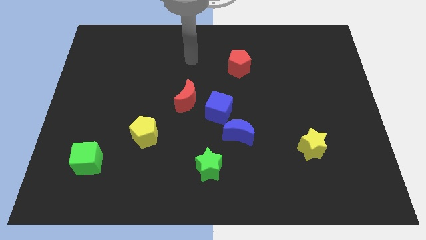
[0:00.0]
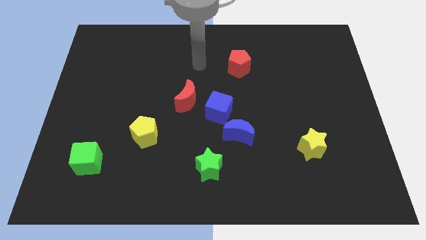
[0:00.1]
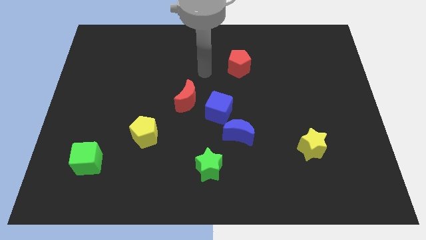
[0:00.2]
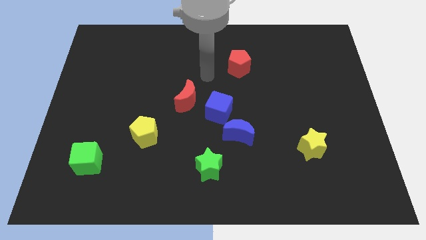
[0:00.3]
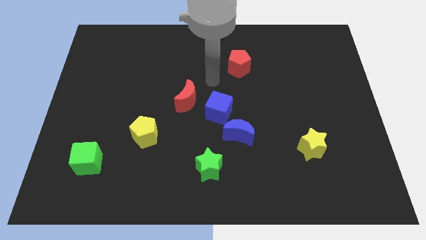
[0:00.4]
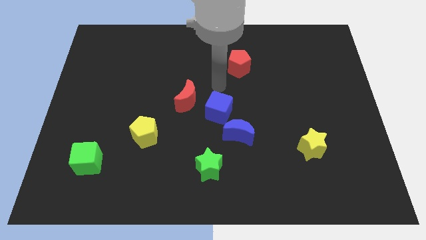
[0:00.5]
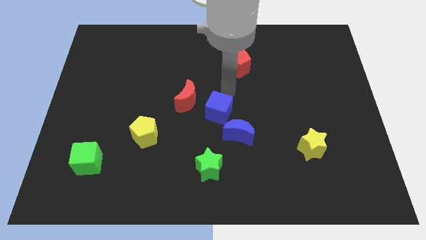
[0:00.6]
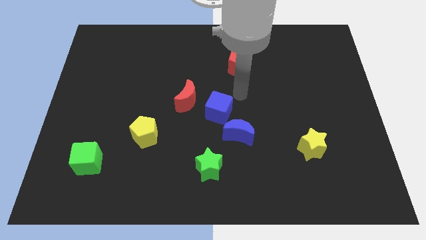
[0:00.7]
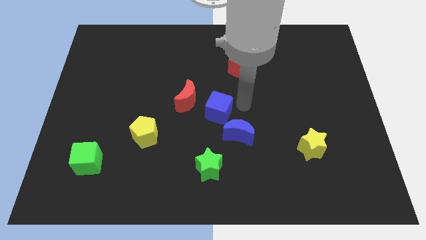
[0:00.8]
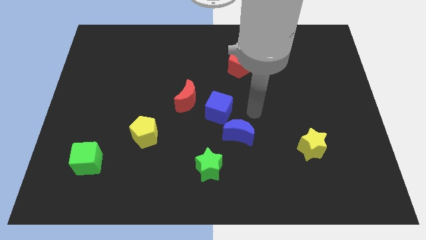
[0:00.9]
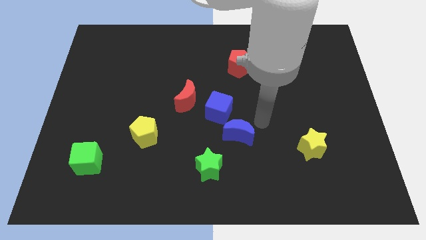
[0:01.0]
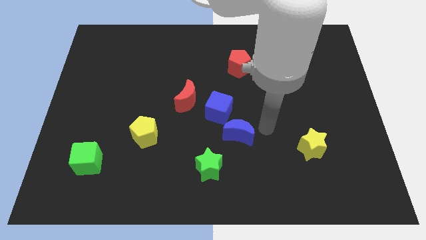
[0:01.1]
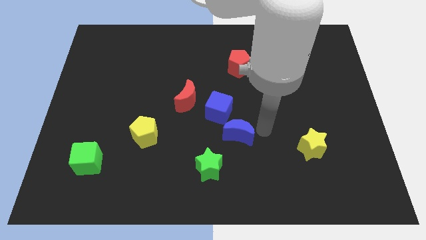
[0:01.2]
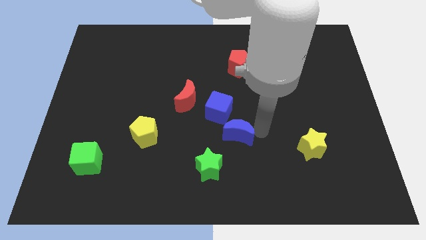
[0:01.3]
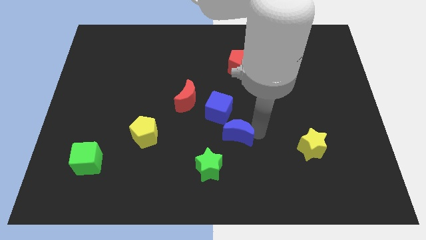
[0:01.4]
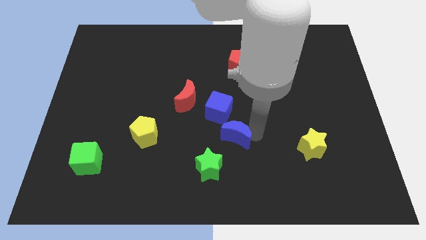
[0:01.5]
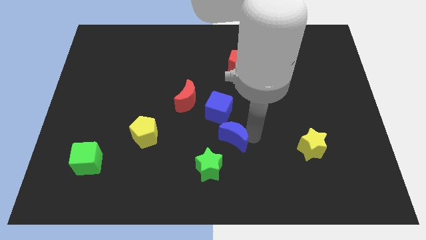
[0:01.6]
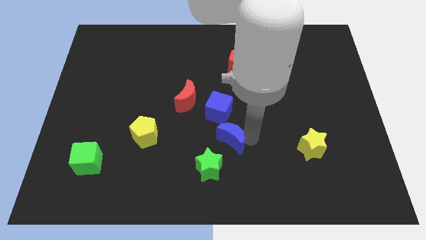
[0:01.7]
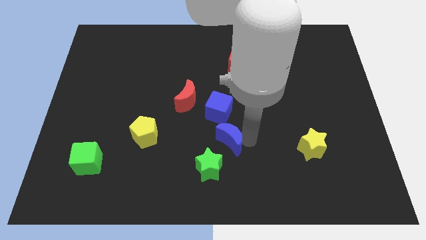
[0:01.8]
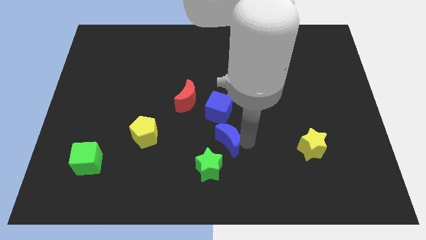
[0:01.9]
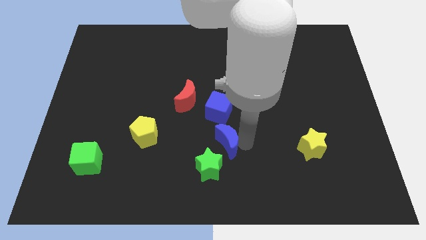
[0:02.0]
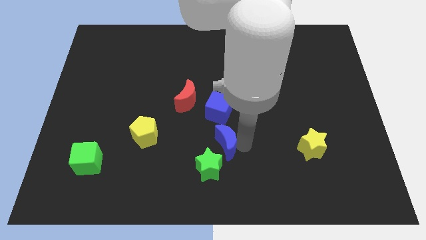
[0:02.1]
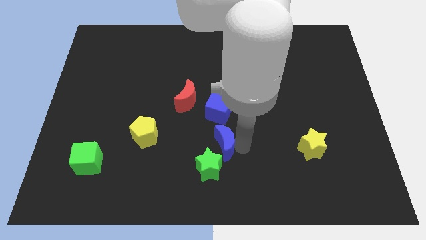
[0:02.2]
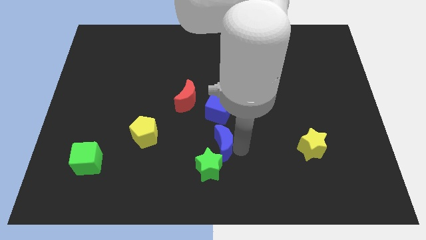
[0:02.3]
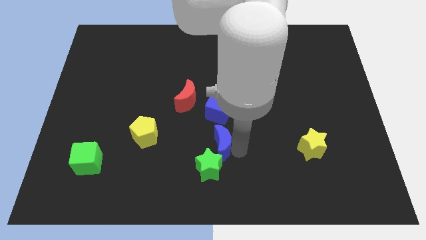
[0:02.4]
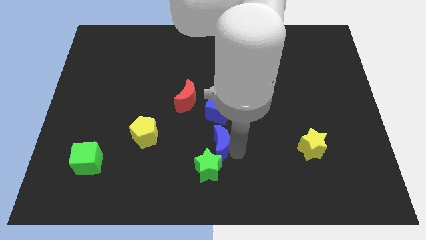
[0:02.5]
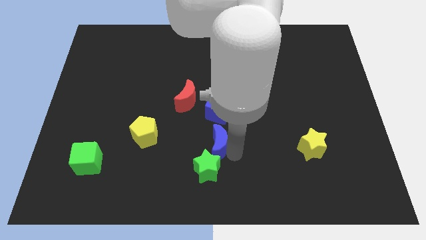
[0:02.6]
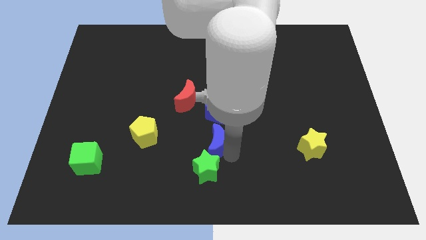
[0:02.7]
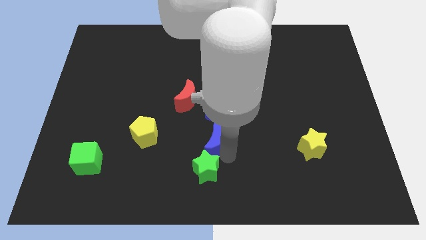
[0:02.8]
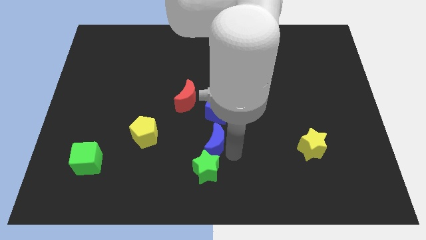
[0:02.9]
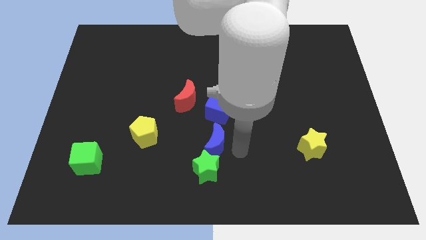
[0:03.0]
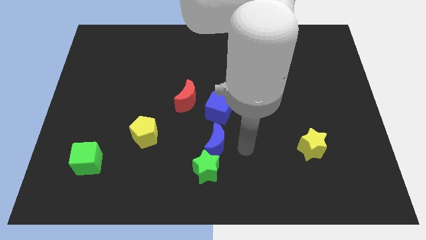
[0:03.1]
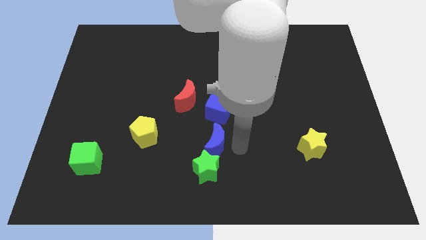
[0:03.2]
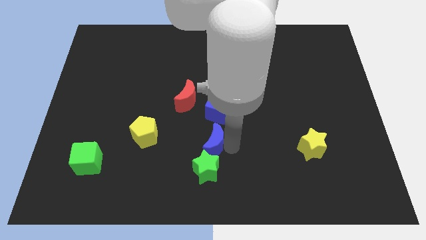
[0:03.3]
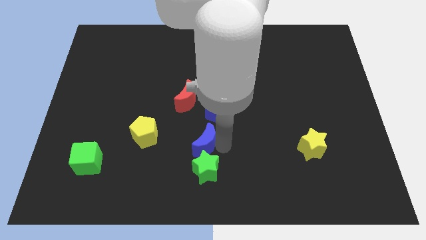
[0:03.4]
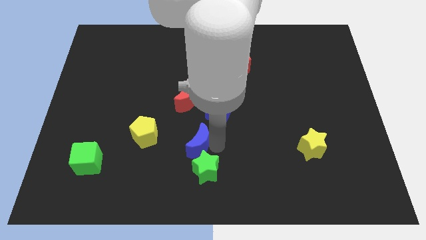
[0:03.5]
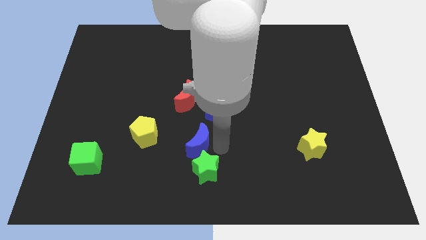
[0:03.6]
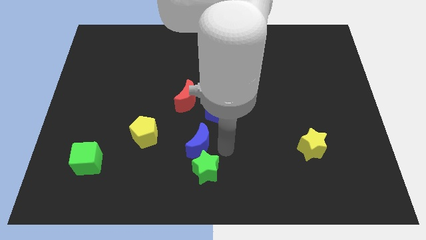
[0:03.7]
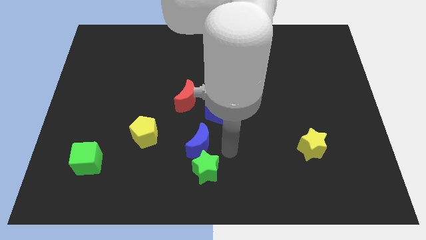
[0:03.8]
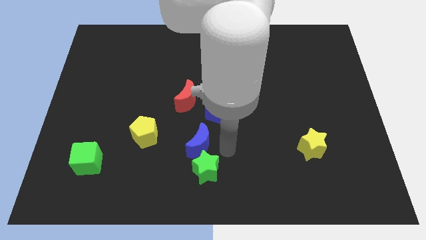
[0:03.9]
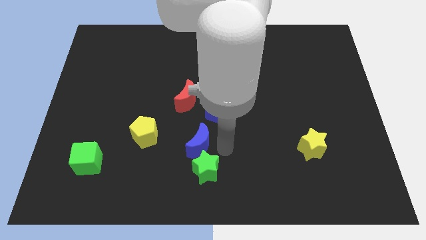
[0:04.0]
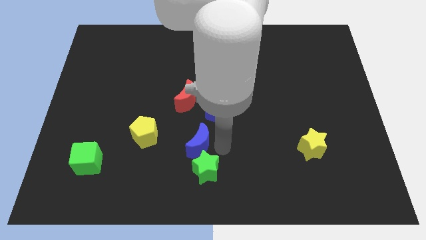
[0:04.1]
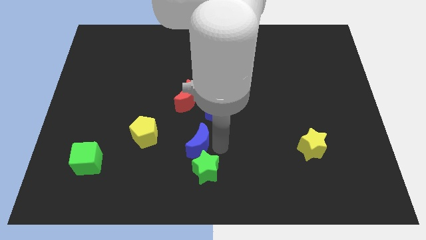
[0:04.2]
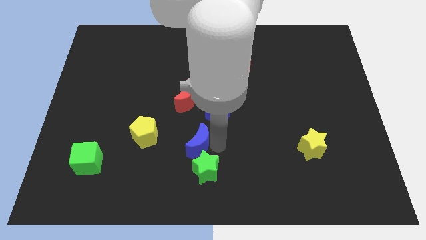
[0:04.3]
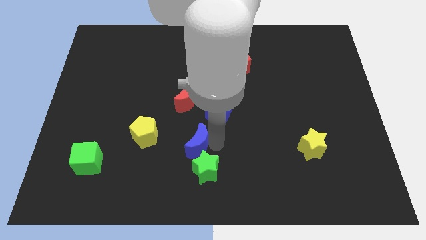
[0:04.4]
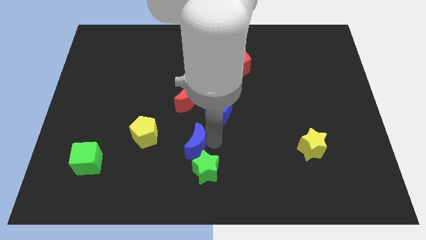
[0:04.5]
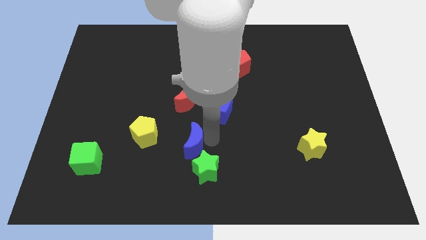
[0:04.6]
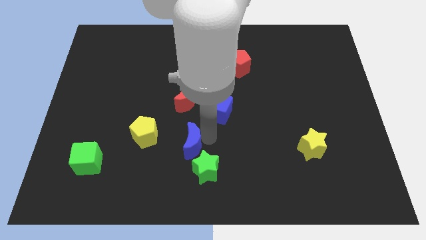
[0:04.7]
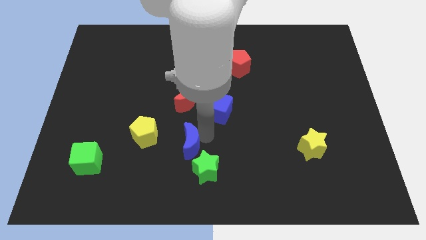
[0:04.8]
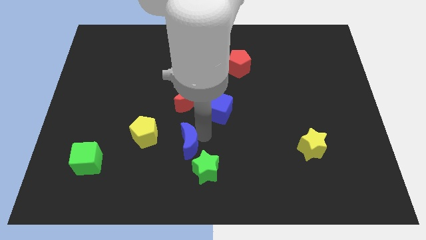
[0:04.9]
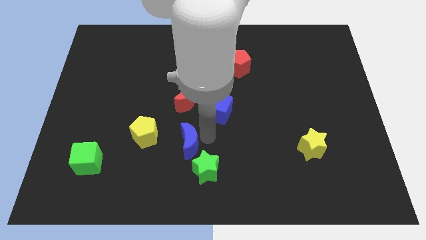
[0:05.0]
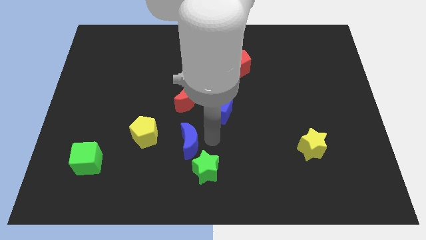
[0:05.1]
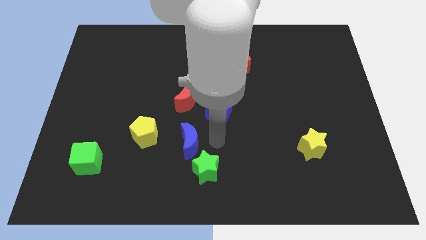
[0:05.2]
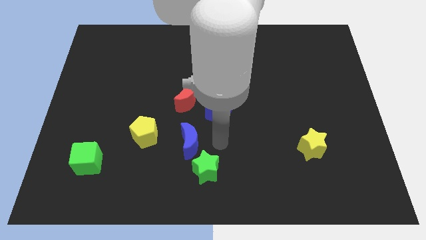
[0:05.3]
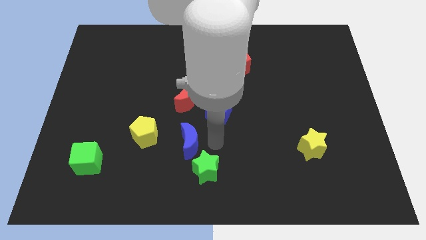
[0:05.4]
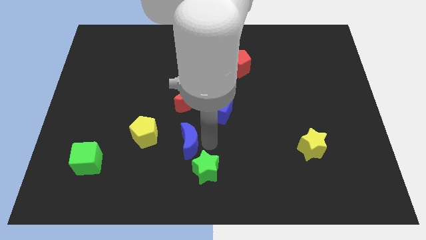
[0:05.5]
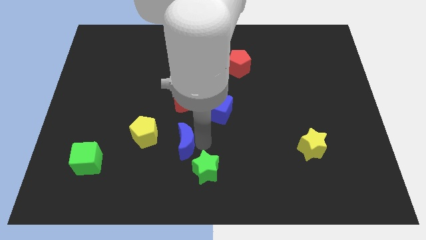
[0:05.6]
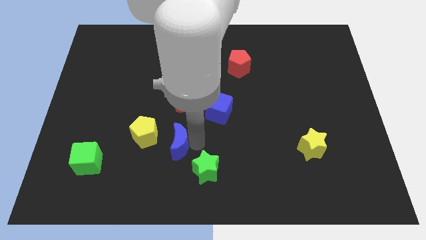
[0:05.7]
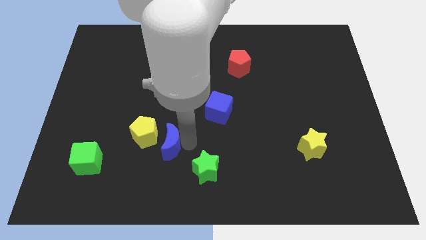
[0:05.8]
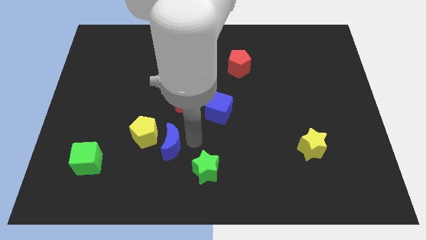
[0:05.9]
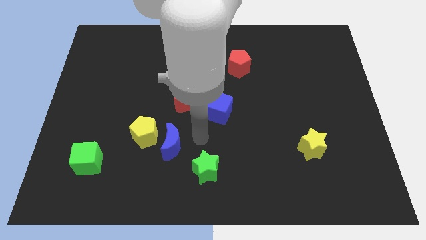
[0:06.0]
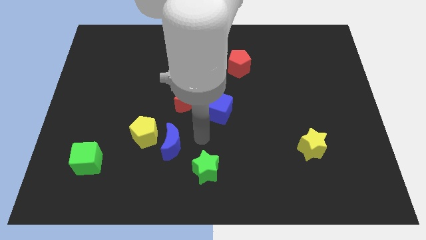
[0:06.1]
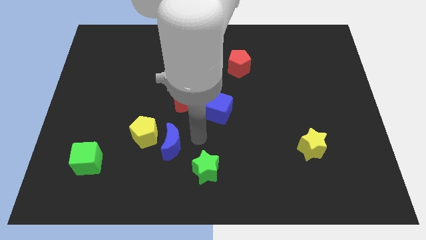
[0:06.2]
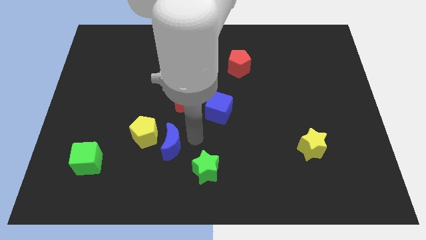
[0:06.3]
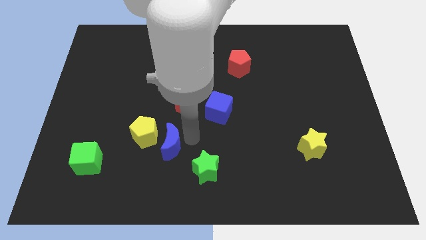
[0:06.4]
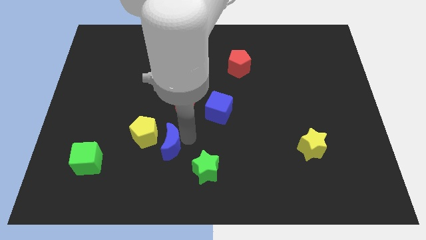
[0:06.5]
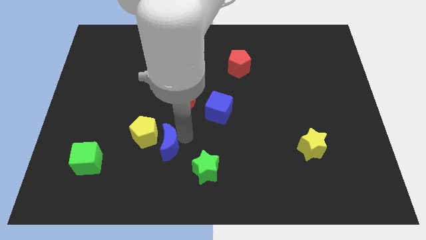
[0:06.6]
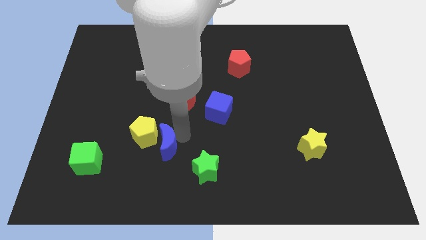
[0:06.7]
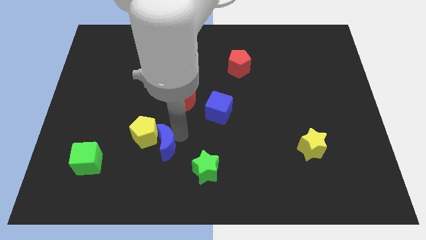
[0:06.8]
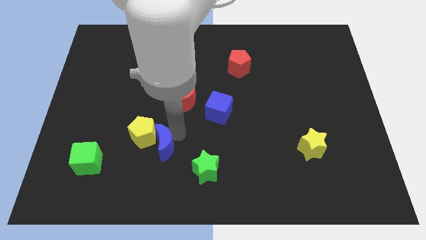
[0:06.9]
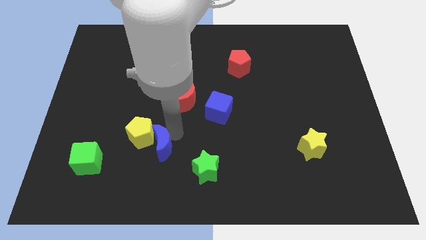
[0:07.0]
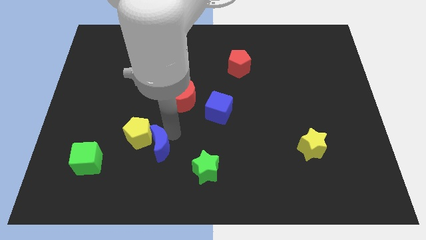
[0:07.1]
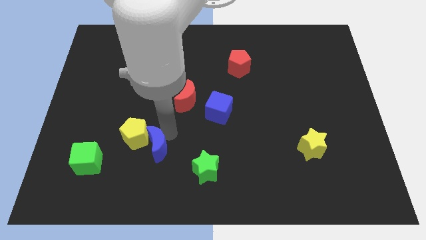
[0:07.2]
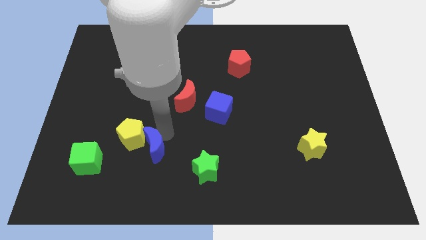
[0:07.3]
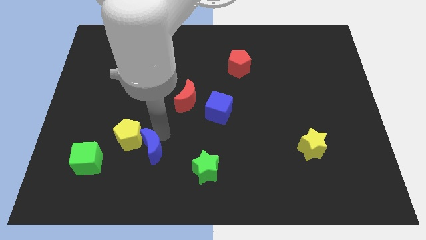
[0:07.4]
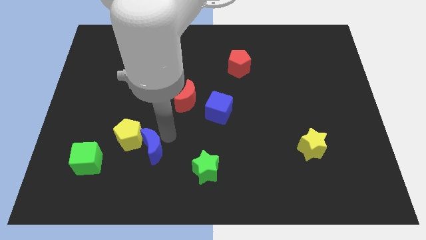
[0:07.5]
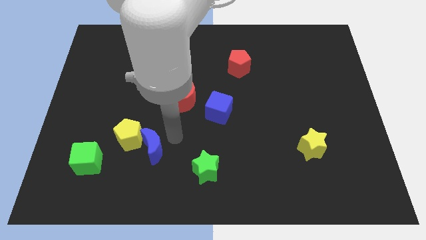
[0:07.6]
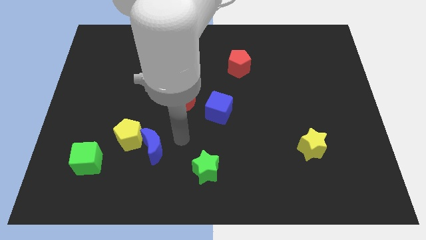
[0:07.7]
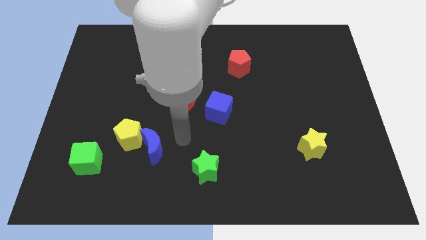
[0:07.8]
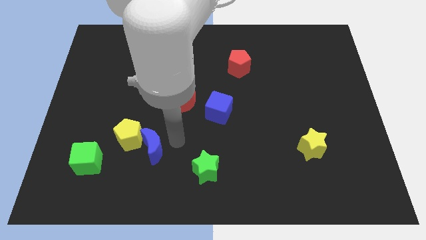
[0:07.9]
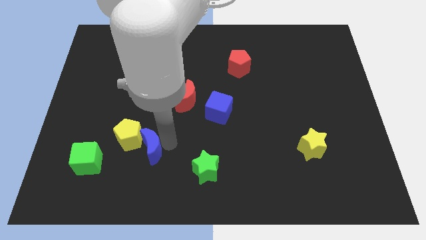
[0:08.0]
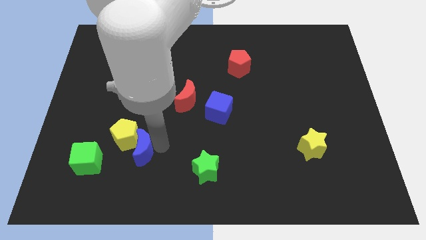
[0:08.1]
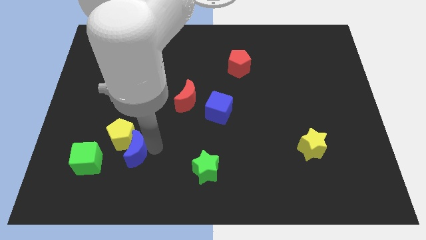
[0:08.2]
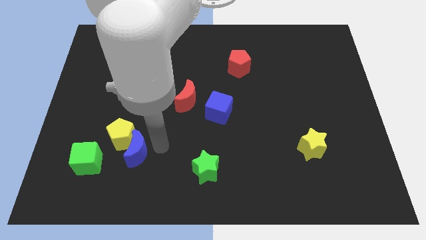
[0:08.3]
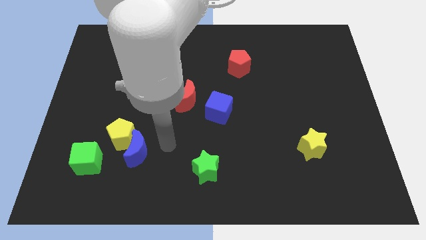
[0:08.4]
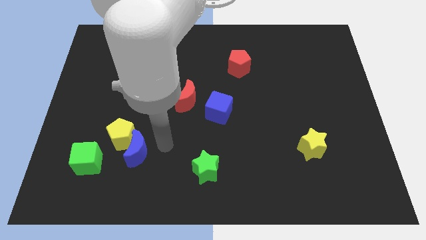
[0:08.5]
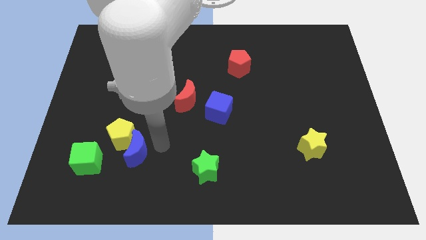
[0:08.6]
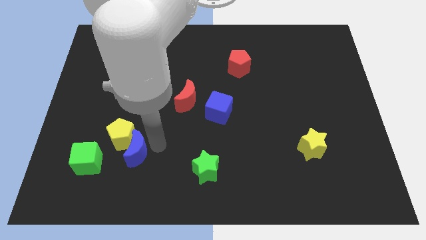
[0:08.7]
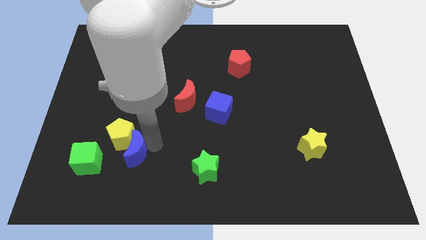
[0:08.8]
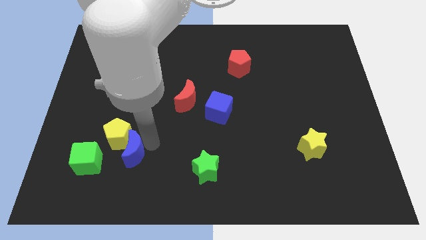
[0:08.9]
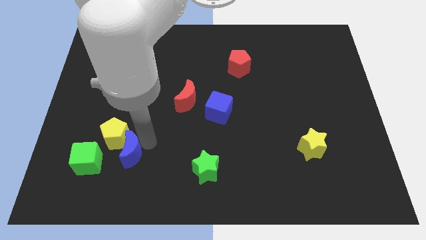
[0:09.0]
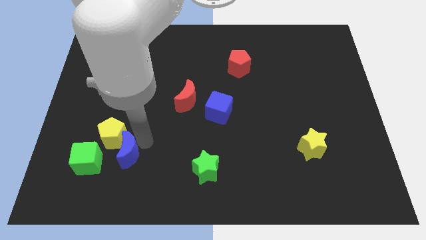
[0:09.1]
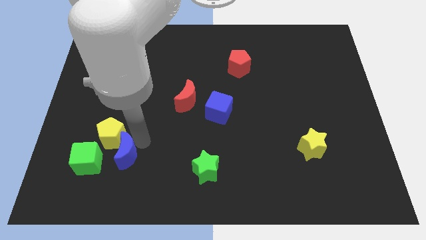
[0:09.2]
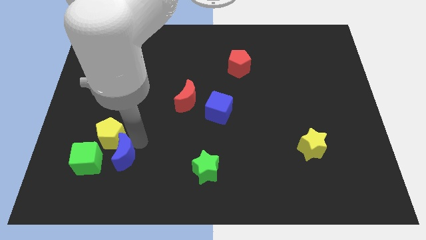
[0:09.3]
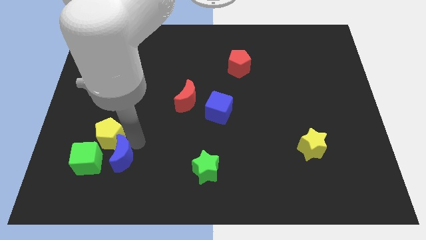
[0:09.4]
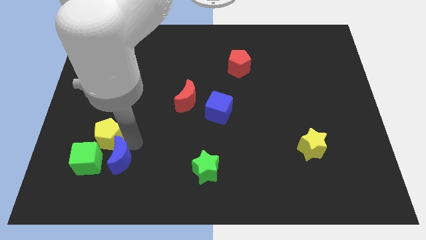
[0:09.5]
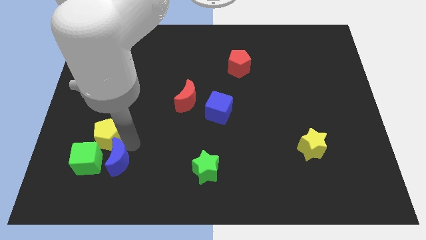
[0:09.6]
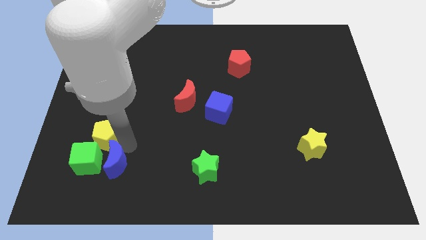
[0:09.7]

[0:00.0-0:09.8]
move the blue moon to the green cube
